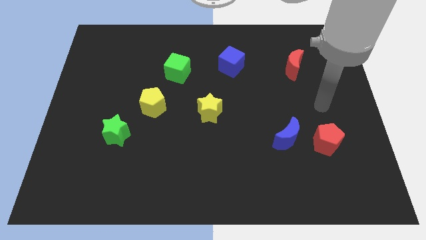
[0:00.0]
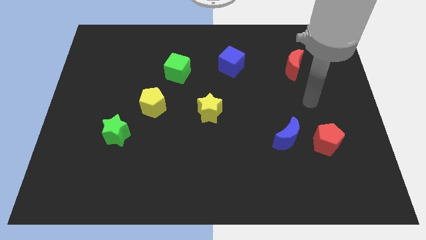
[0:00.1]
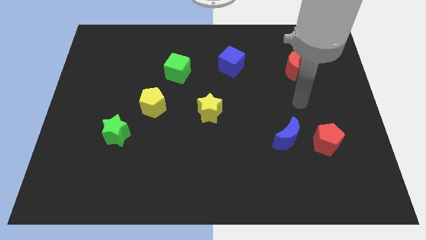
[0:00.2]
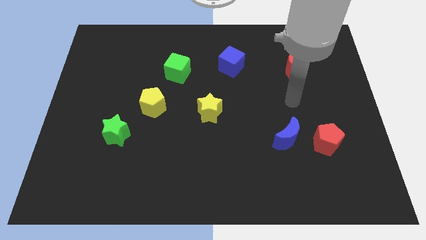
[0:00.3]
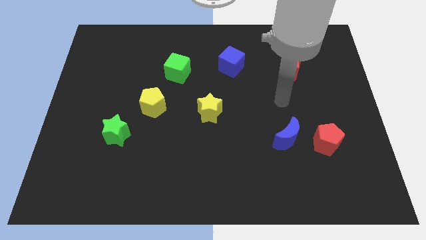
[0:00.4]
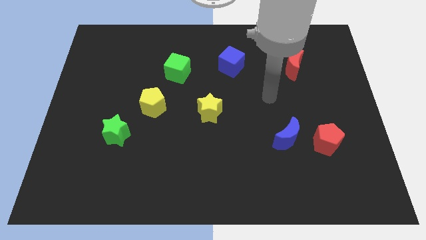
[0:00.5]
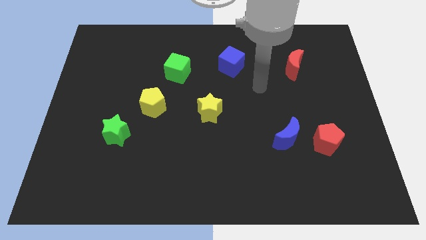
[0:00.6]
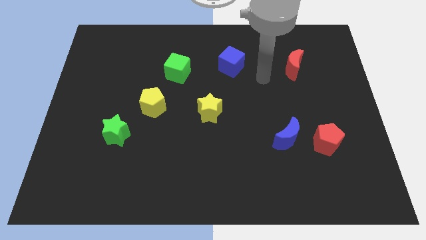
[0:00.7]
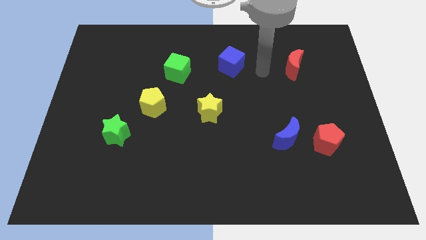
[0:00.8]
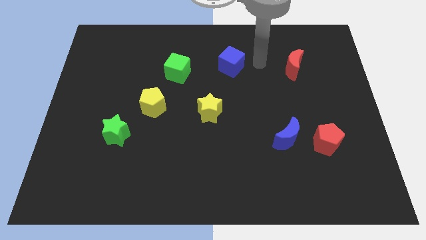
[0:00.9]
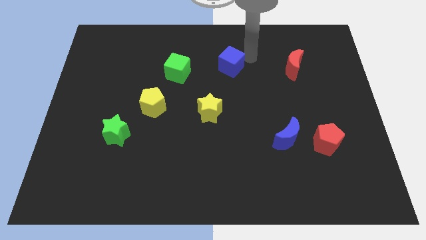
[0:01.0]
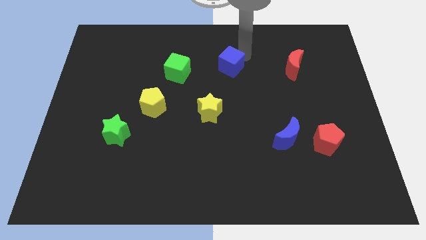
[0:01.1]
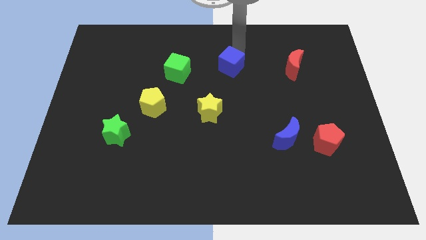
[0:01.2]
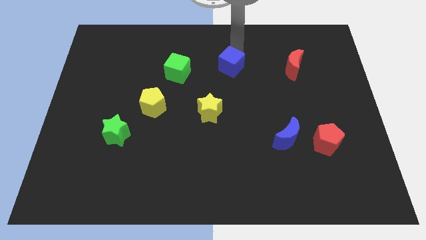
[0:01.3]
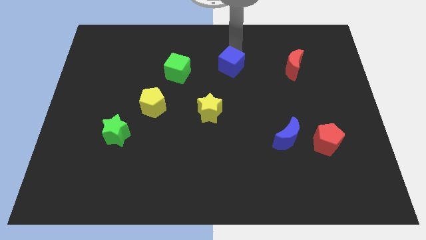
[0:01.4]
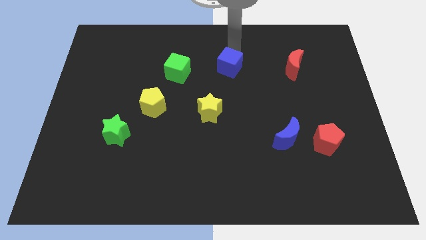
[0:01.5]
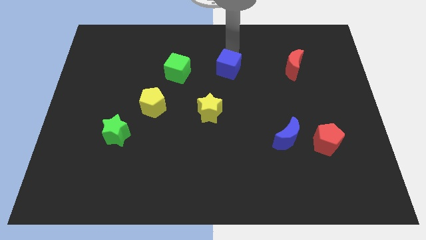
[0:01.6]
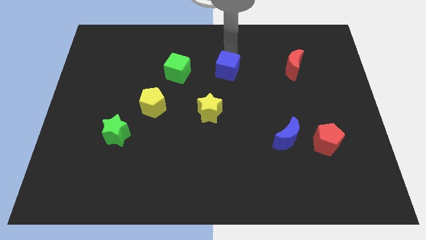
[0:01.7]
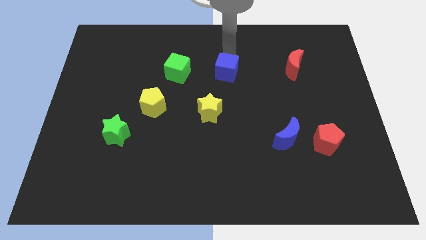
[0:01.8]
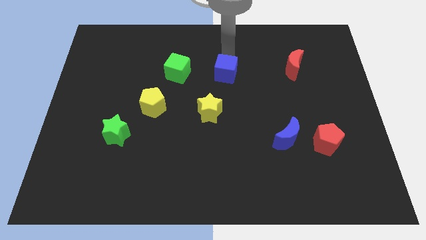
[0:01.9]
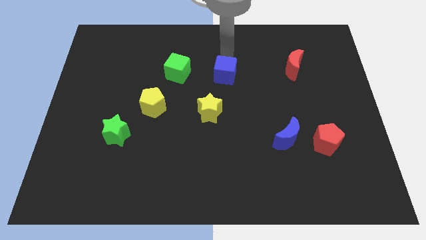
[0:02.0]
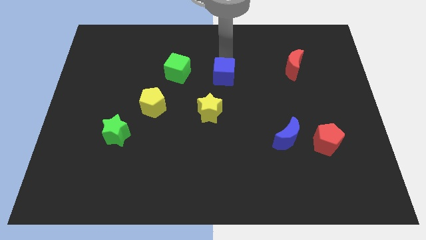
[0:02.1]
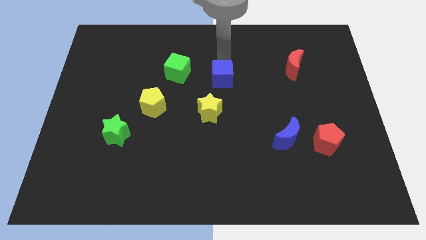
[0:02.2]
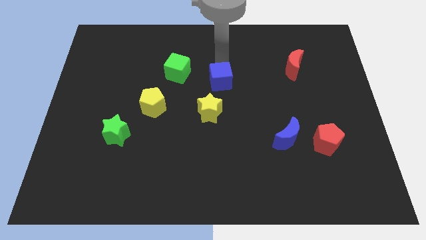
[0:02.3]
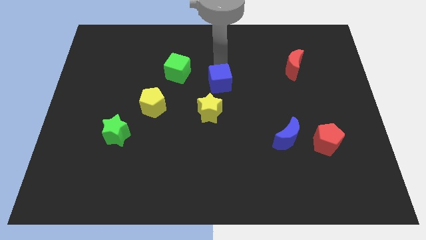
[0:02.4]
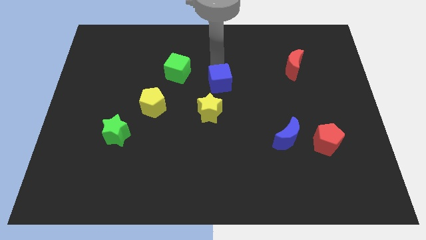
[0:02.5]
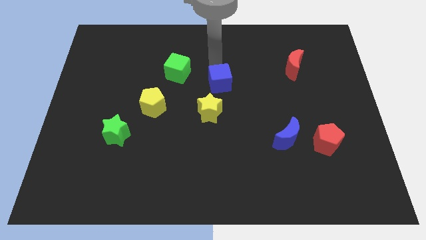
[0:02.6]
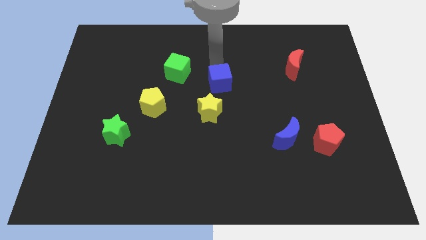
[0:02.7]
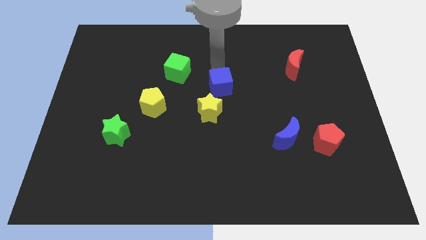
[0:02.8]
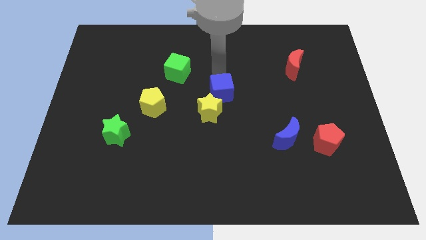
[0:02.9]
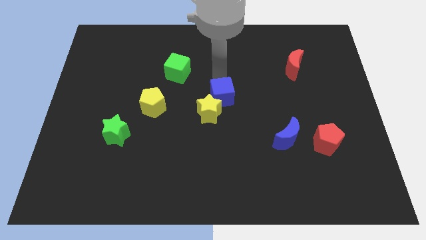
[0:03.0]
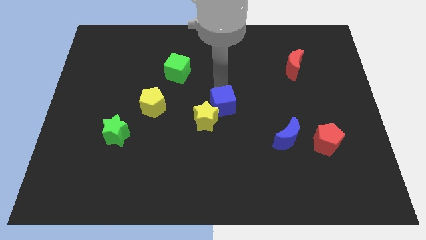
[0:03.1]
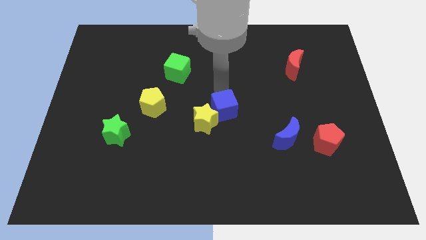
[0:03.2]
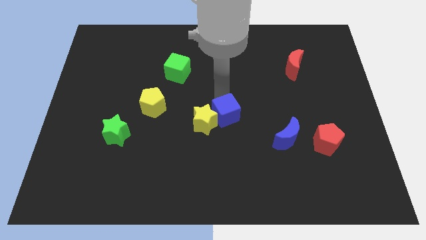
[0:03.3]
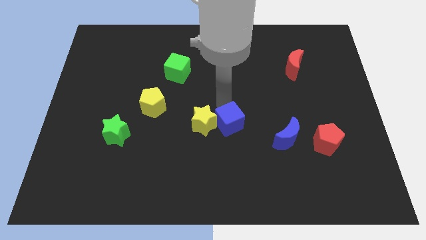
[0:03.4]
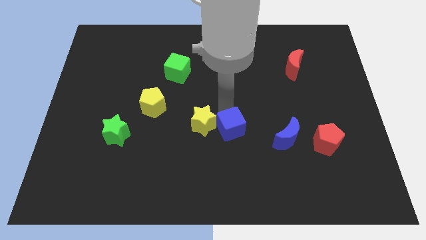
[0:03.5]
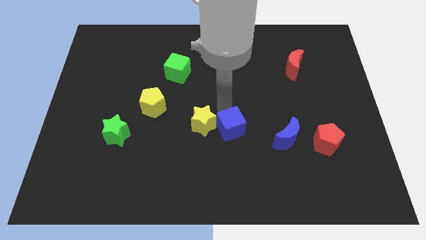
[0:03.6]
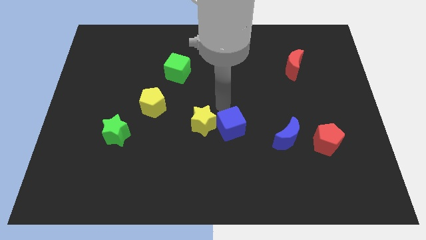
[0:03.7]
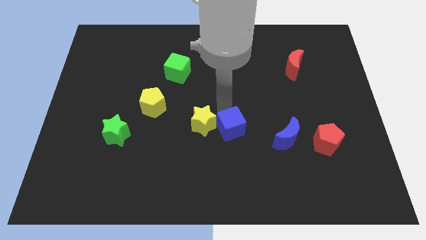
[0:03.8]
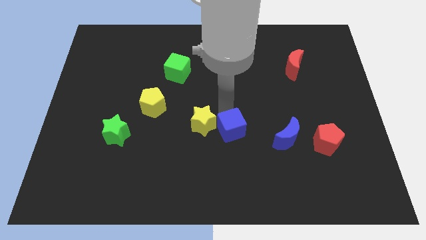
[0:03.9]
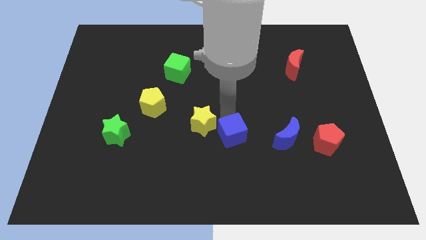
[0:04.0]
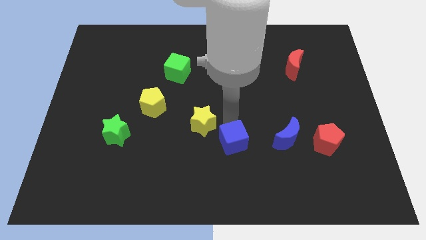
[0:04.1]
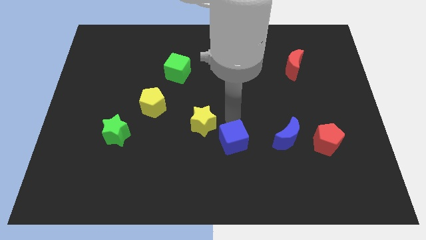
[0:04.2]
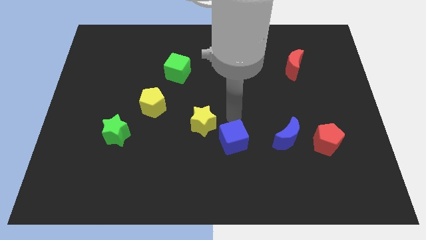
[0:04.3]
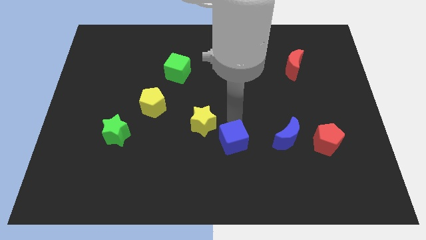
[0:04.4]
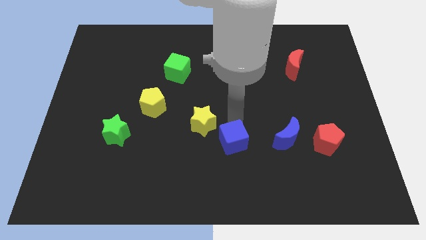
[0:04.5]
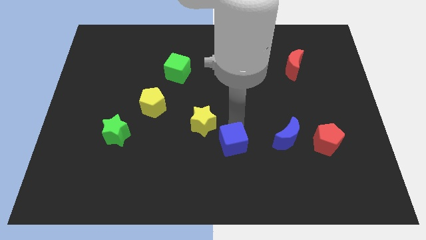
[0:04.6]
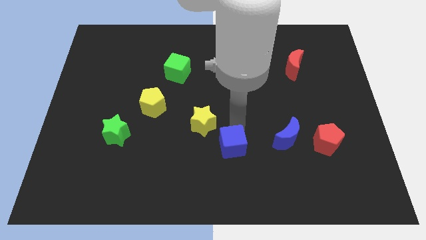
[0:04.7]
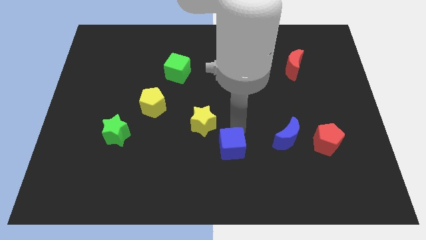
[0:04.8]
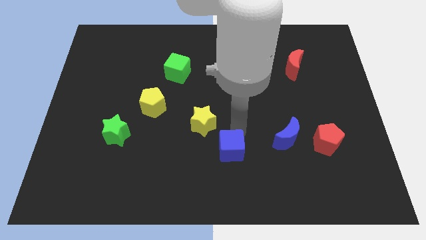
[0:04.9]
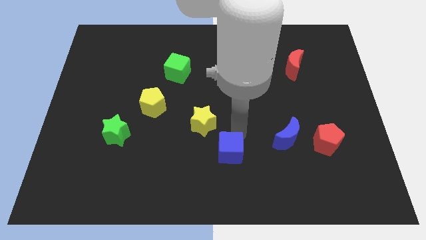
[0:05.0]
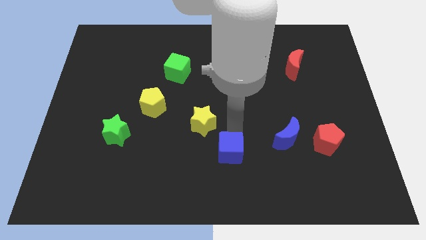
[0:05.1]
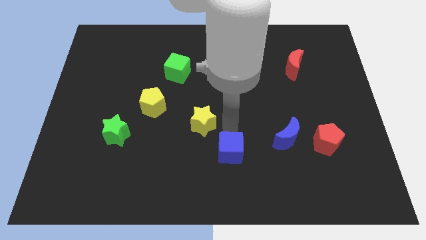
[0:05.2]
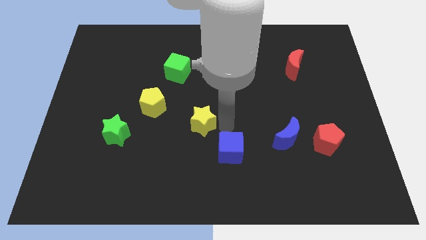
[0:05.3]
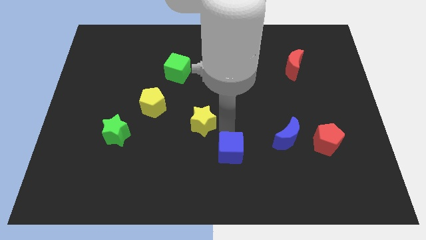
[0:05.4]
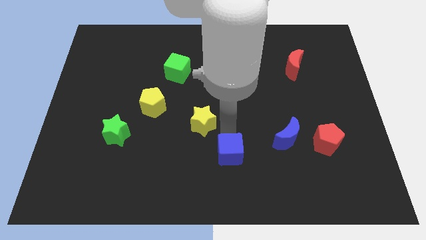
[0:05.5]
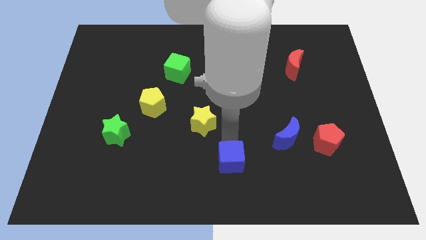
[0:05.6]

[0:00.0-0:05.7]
push the blue cube to the bottom

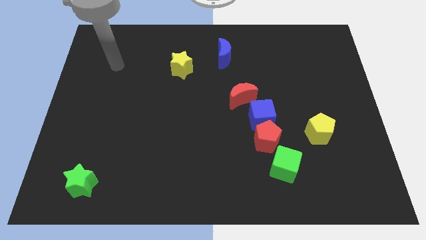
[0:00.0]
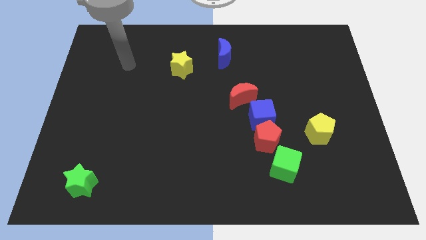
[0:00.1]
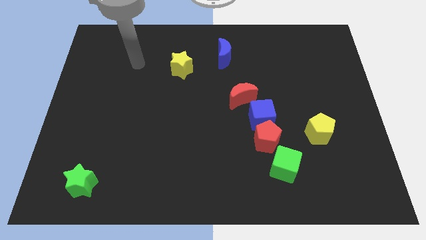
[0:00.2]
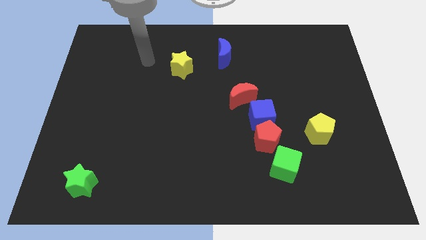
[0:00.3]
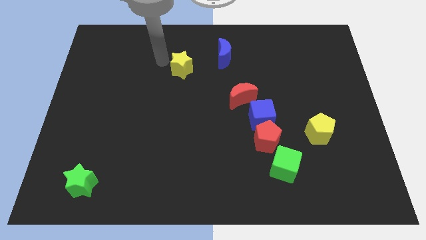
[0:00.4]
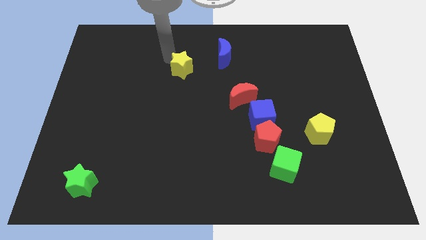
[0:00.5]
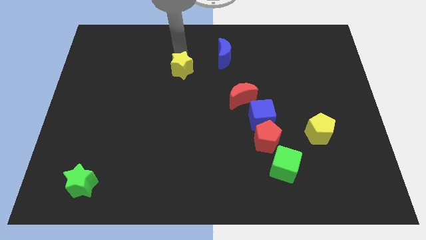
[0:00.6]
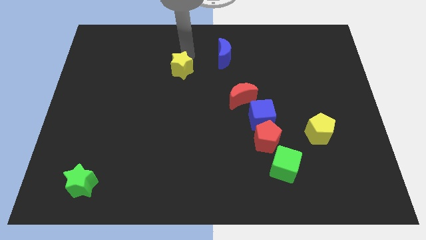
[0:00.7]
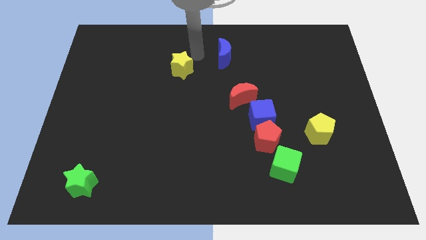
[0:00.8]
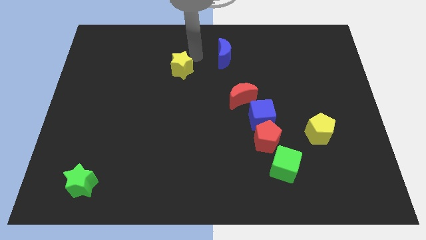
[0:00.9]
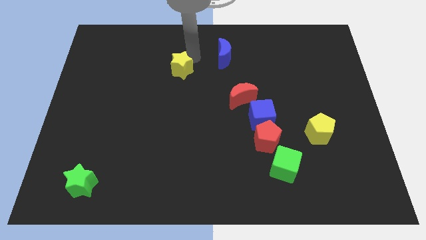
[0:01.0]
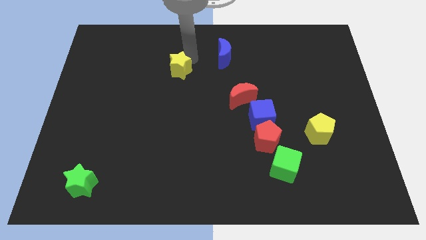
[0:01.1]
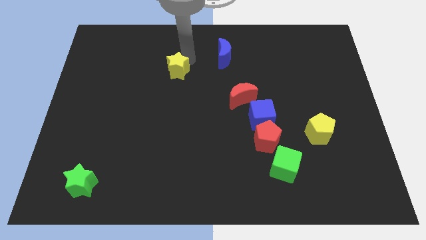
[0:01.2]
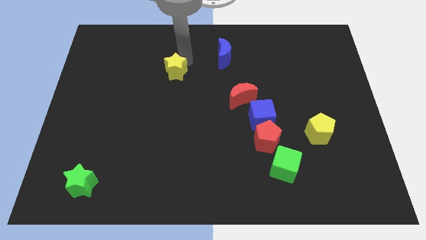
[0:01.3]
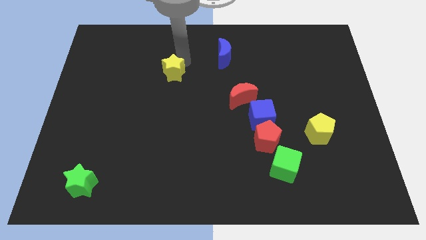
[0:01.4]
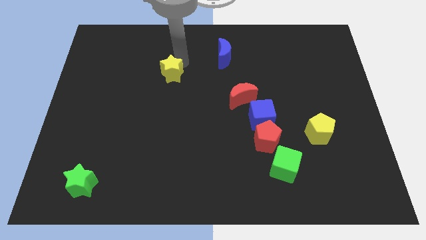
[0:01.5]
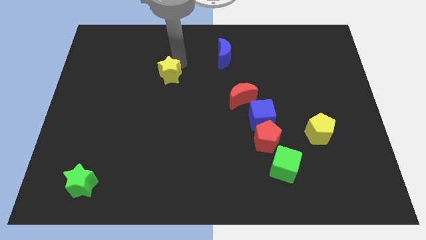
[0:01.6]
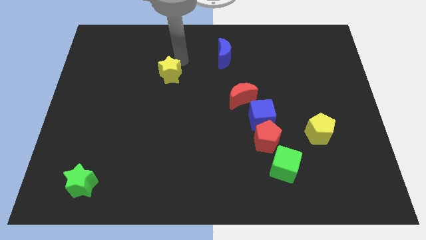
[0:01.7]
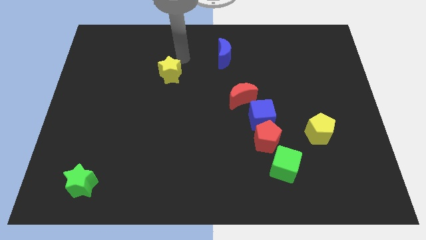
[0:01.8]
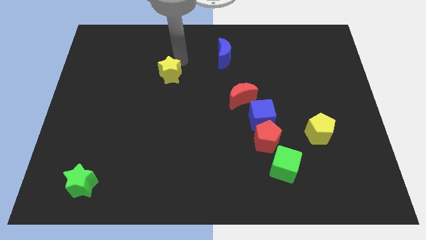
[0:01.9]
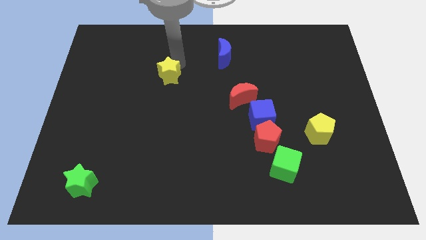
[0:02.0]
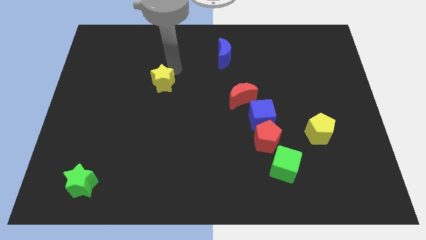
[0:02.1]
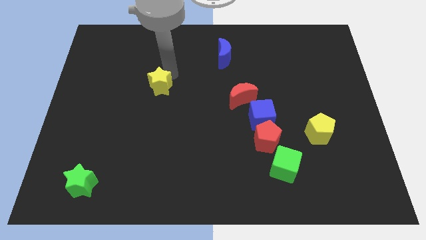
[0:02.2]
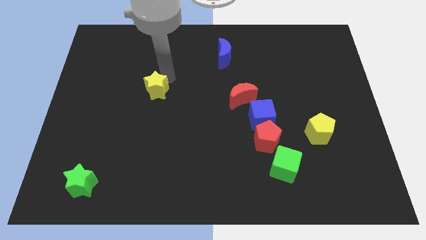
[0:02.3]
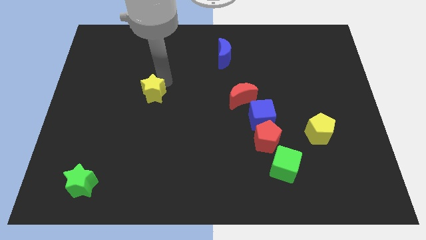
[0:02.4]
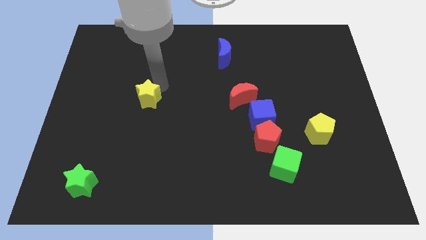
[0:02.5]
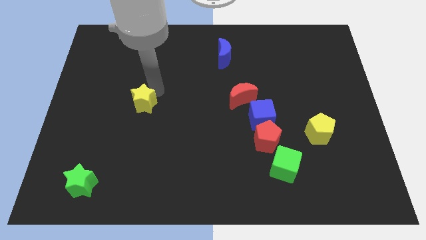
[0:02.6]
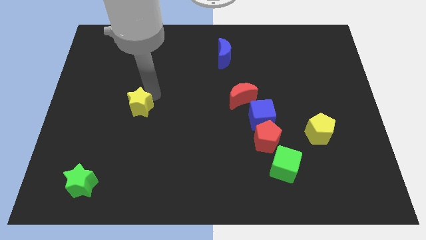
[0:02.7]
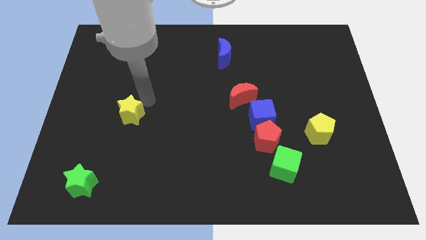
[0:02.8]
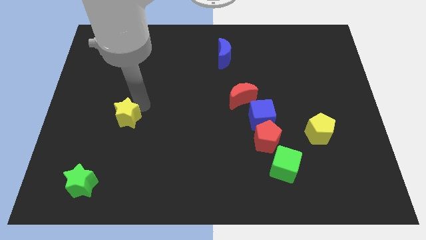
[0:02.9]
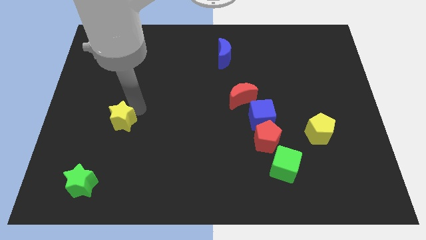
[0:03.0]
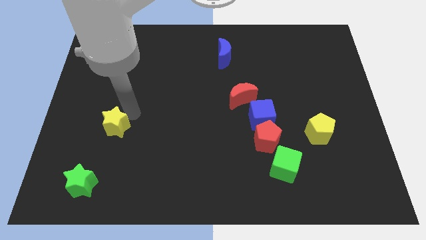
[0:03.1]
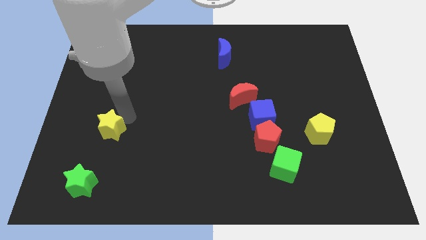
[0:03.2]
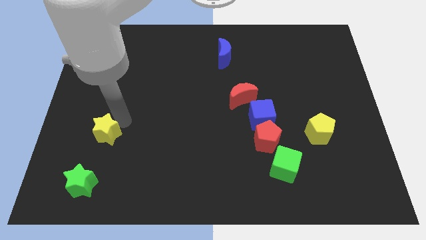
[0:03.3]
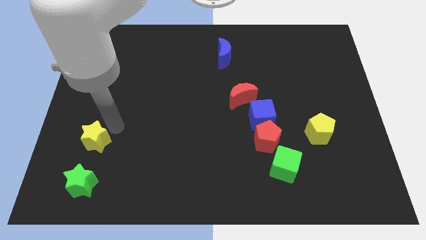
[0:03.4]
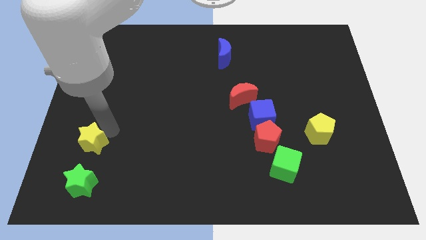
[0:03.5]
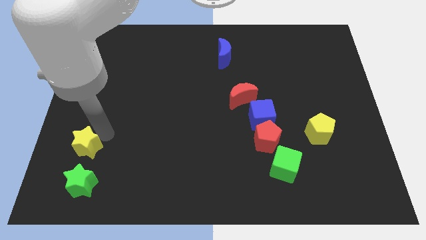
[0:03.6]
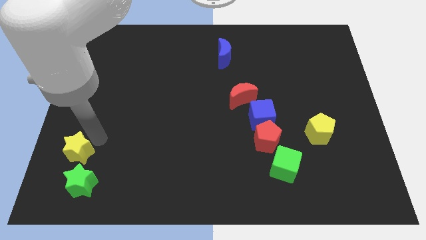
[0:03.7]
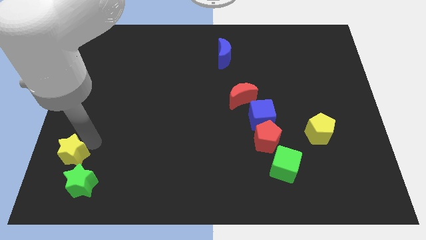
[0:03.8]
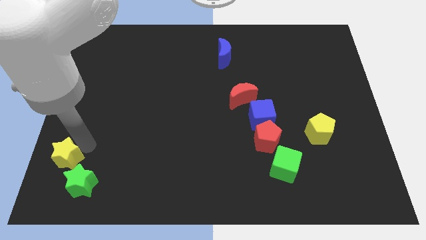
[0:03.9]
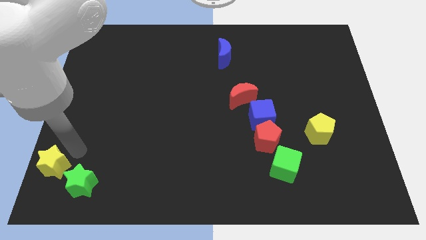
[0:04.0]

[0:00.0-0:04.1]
push the yellow star to the bottom left
